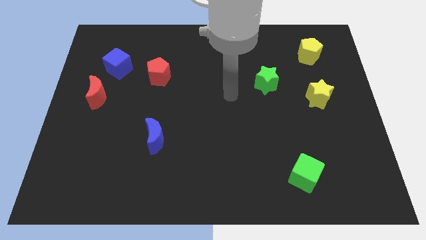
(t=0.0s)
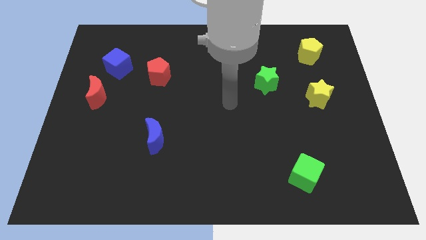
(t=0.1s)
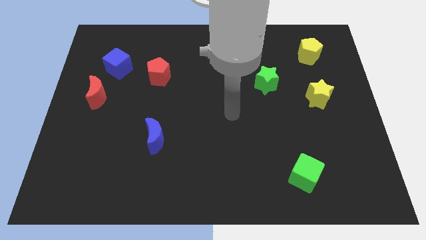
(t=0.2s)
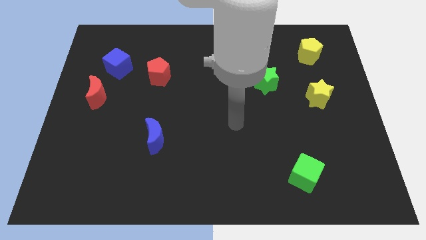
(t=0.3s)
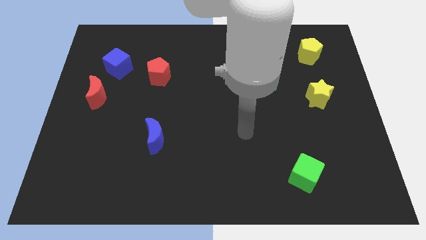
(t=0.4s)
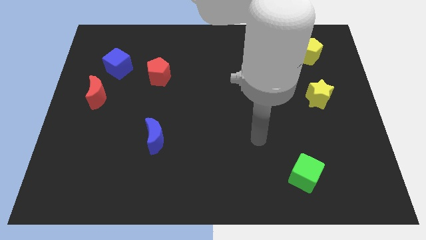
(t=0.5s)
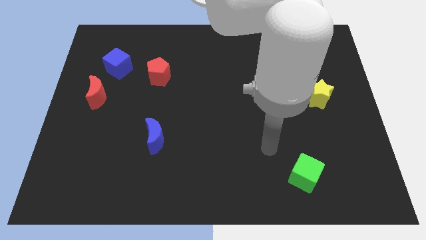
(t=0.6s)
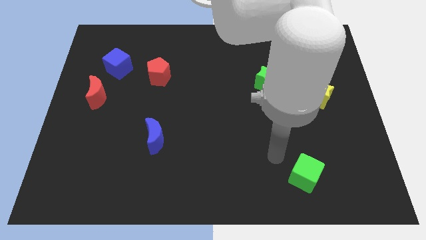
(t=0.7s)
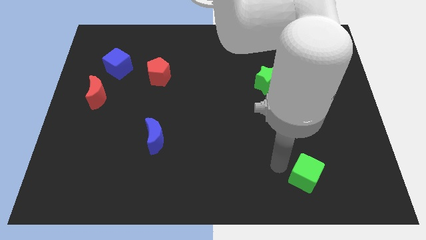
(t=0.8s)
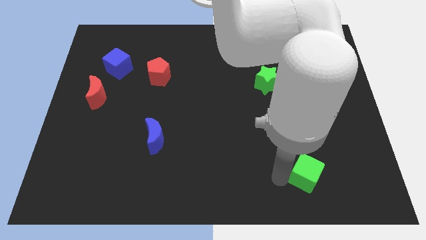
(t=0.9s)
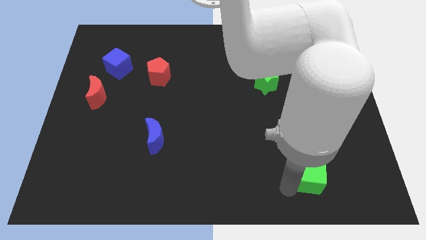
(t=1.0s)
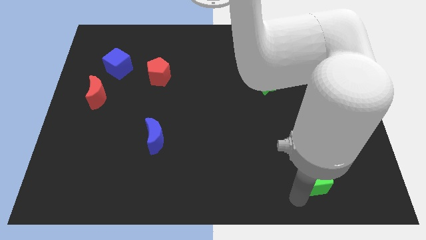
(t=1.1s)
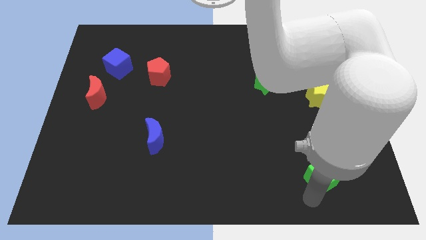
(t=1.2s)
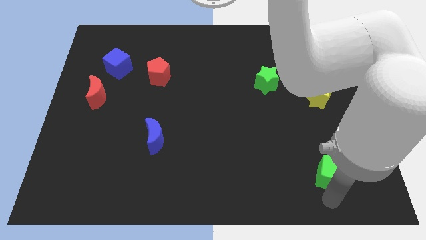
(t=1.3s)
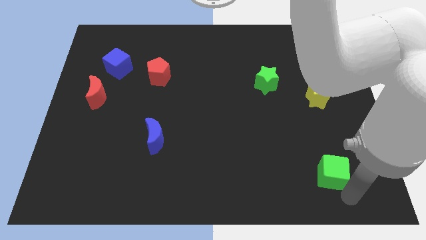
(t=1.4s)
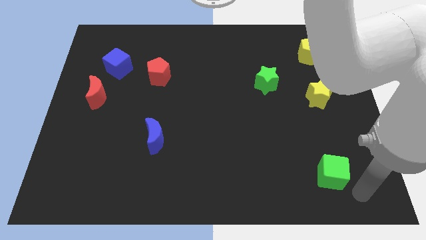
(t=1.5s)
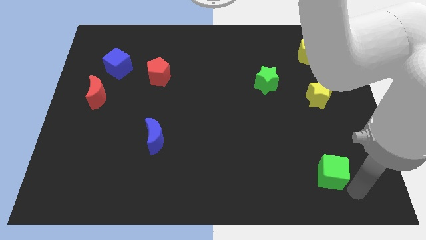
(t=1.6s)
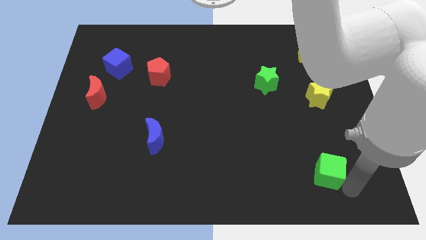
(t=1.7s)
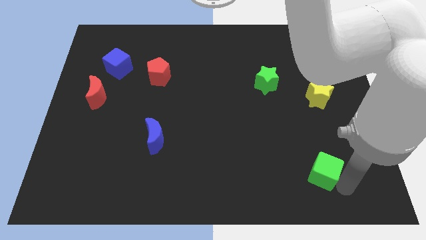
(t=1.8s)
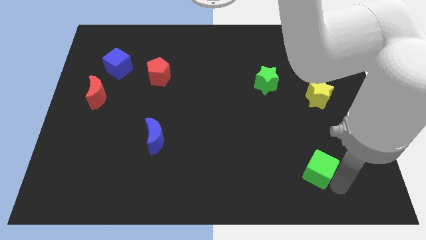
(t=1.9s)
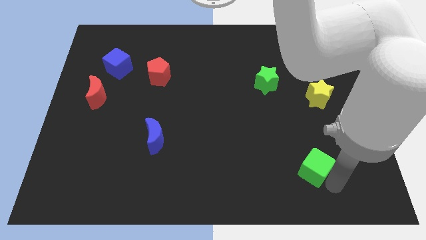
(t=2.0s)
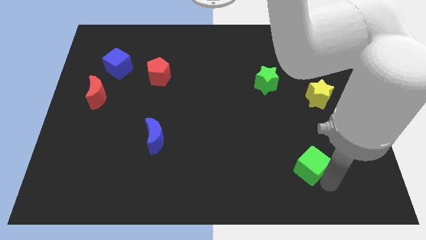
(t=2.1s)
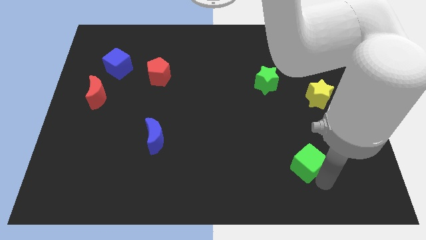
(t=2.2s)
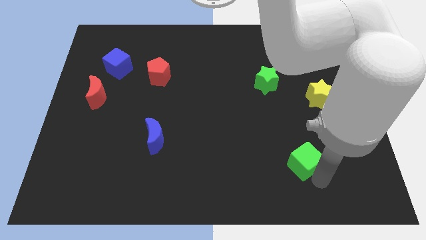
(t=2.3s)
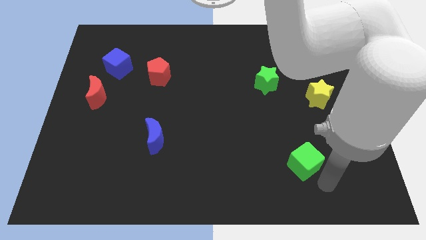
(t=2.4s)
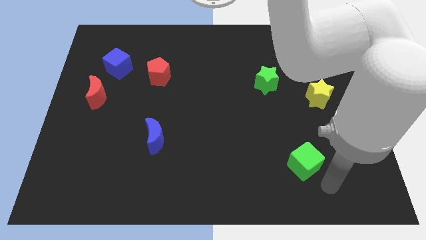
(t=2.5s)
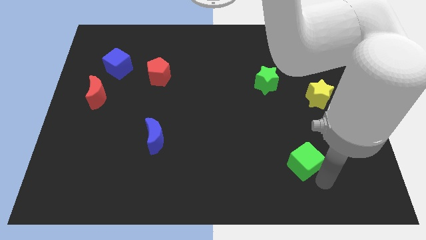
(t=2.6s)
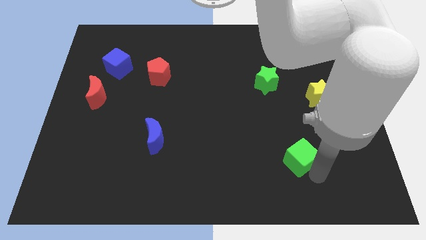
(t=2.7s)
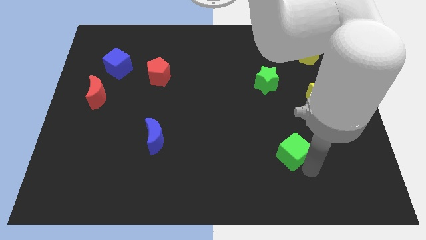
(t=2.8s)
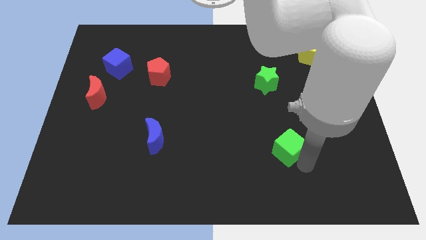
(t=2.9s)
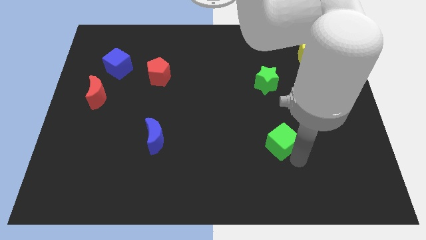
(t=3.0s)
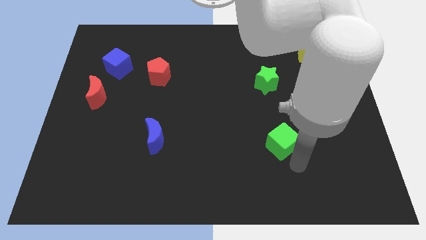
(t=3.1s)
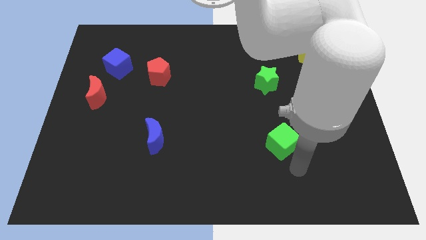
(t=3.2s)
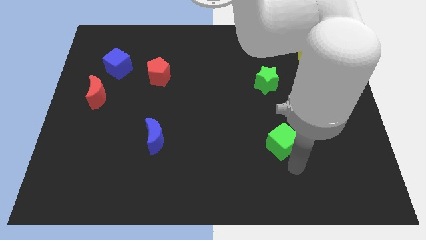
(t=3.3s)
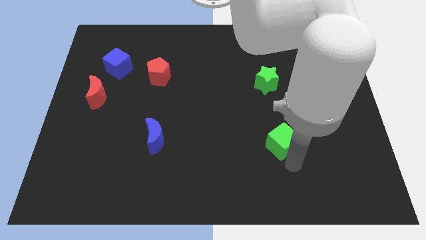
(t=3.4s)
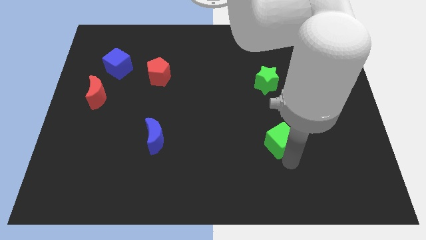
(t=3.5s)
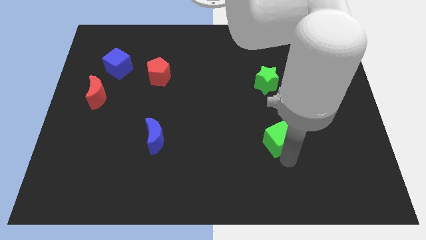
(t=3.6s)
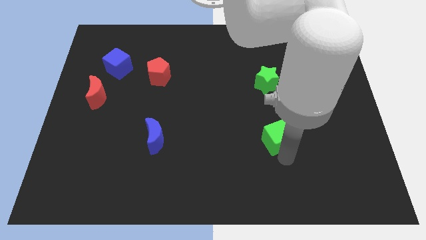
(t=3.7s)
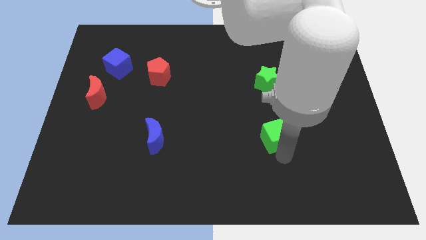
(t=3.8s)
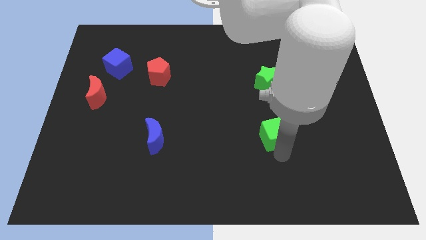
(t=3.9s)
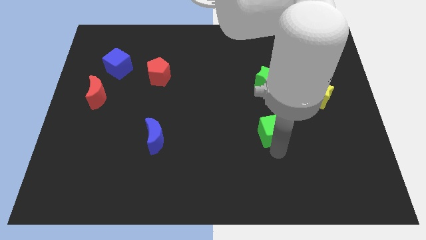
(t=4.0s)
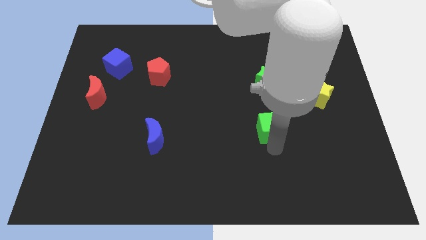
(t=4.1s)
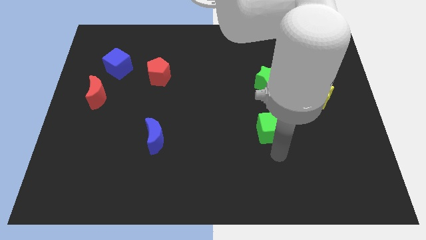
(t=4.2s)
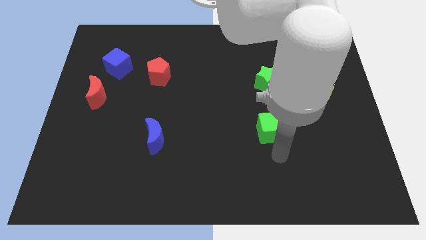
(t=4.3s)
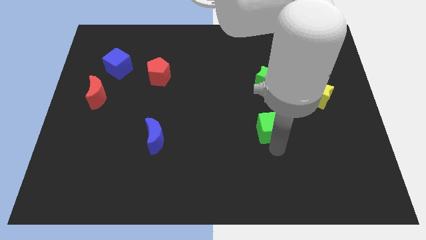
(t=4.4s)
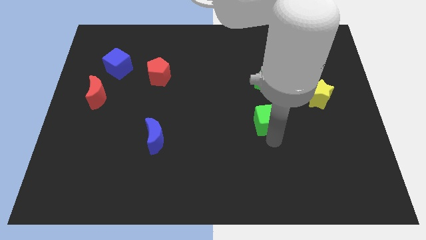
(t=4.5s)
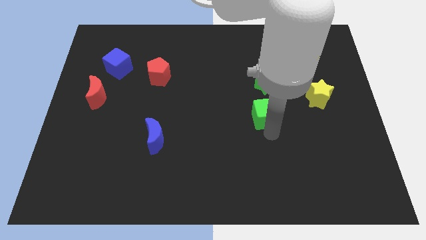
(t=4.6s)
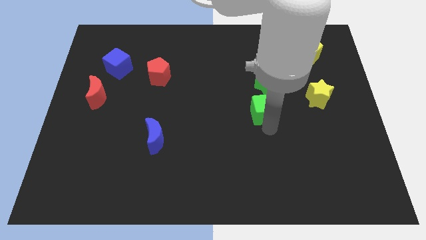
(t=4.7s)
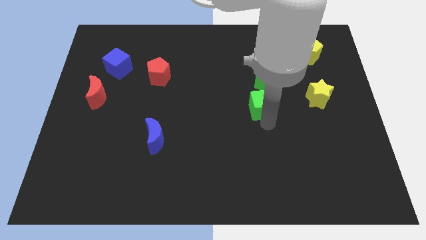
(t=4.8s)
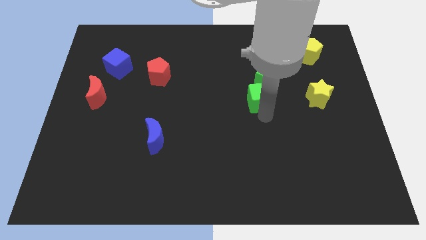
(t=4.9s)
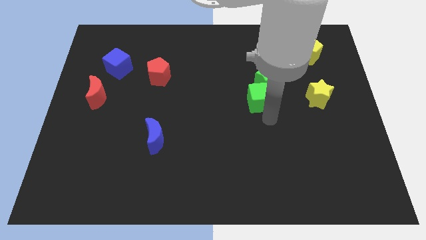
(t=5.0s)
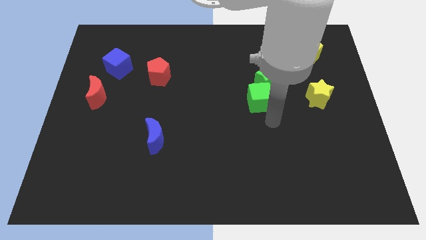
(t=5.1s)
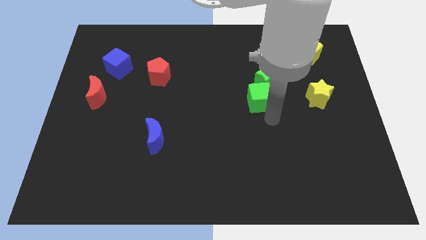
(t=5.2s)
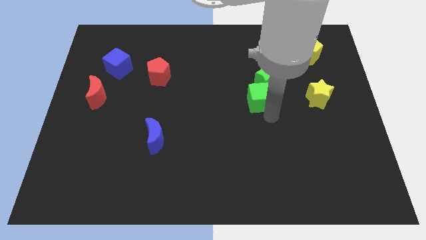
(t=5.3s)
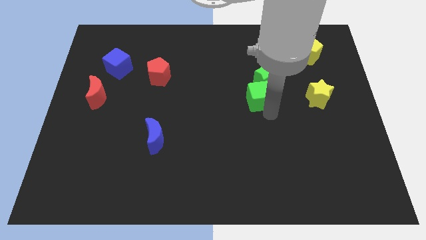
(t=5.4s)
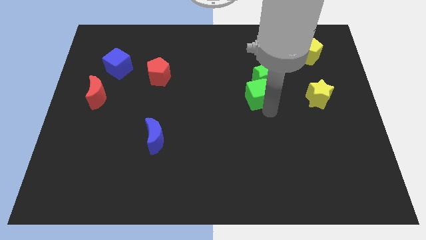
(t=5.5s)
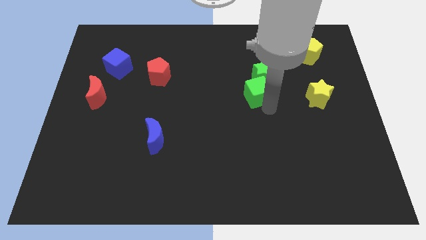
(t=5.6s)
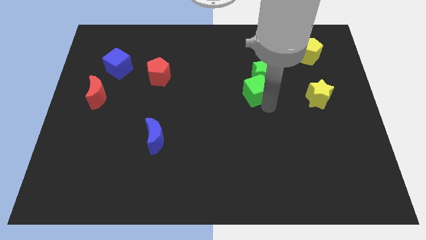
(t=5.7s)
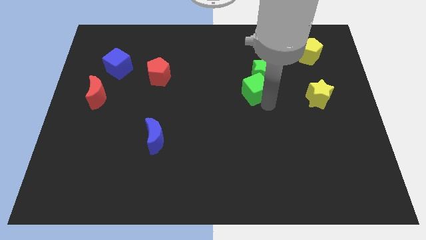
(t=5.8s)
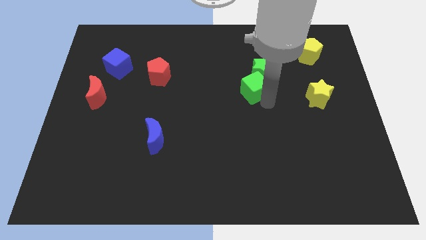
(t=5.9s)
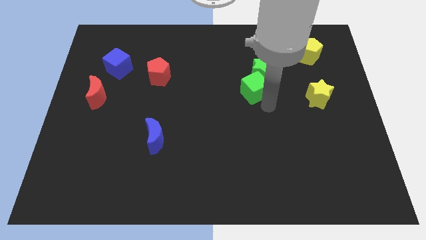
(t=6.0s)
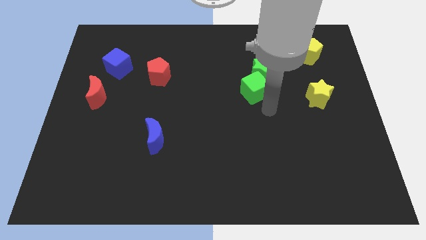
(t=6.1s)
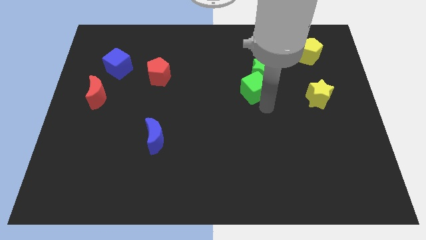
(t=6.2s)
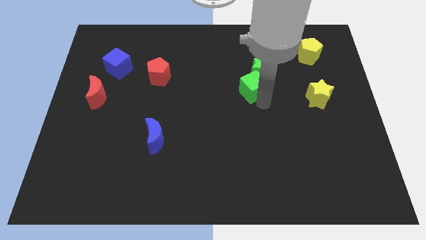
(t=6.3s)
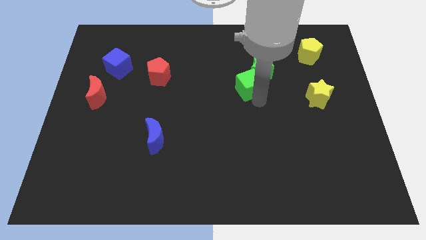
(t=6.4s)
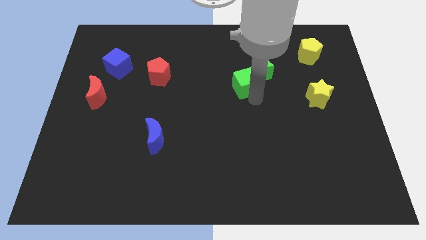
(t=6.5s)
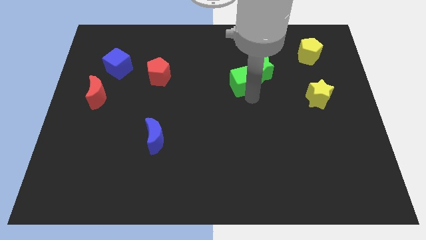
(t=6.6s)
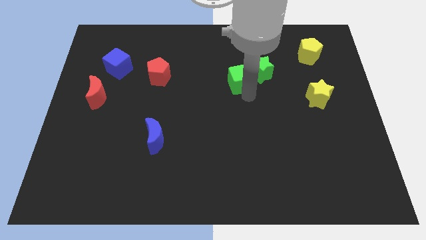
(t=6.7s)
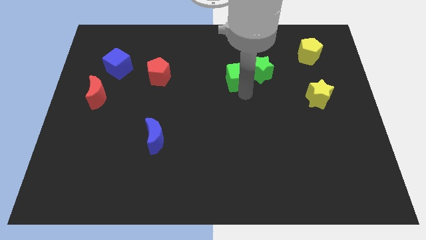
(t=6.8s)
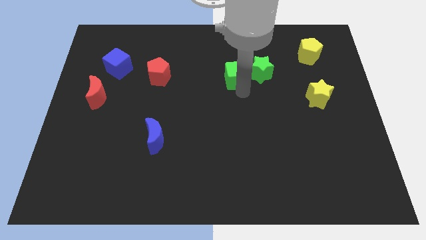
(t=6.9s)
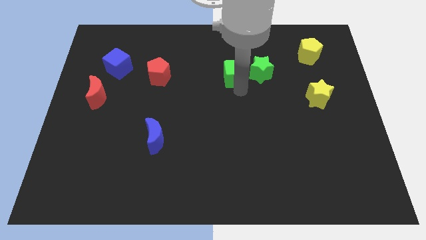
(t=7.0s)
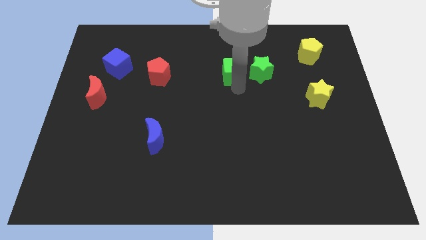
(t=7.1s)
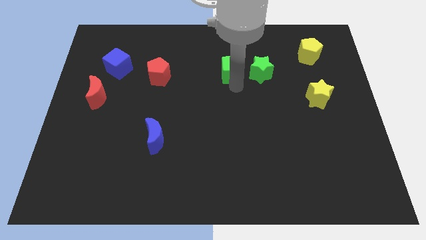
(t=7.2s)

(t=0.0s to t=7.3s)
slide the green cube to the top left side of the green star
